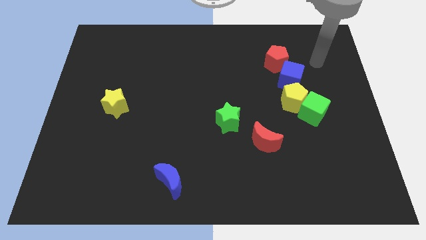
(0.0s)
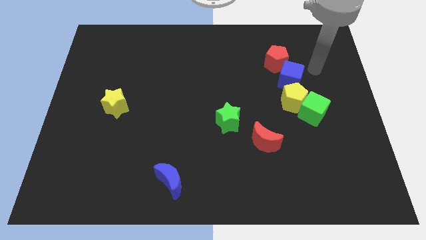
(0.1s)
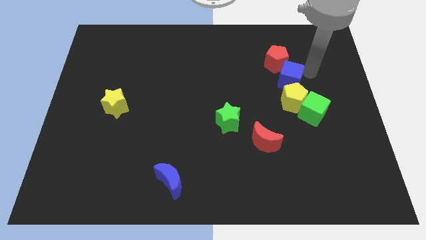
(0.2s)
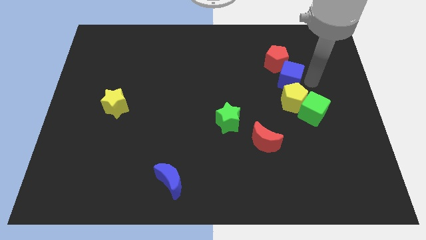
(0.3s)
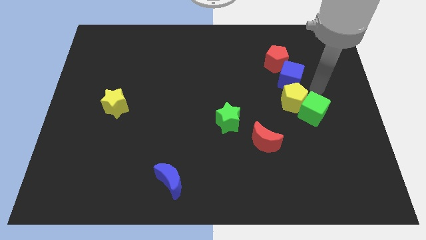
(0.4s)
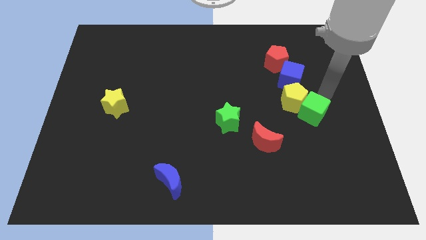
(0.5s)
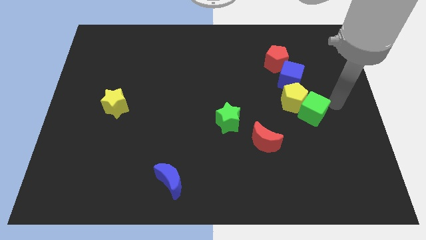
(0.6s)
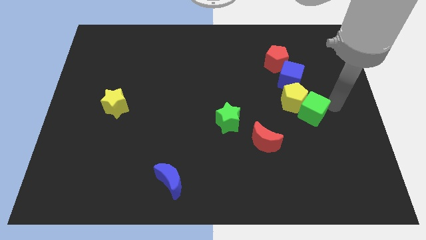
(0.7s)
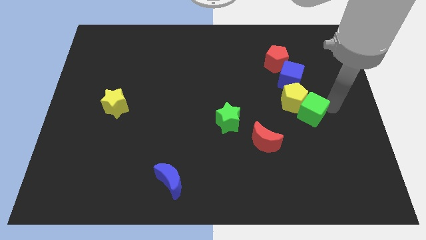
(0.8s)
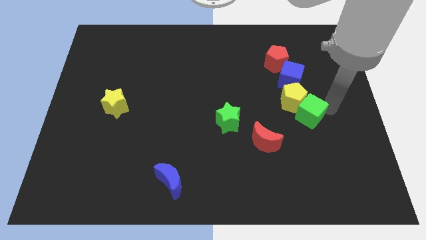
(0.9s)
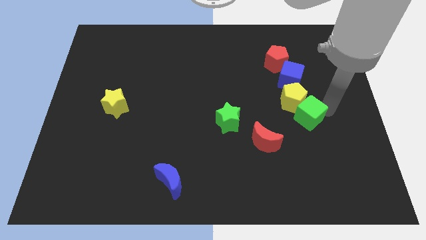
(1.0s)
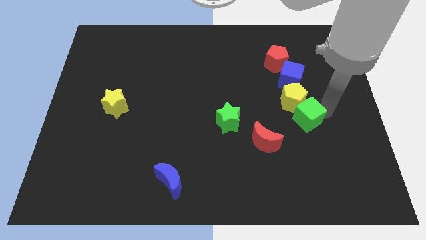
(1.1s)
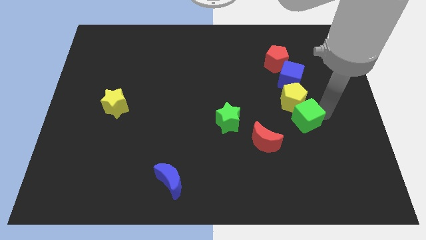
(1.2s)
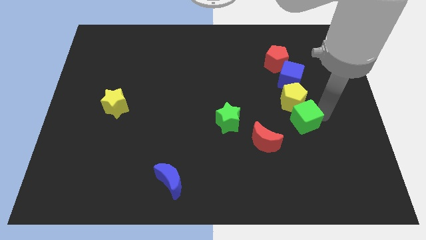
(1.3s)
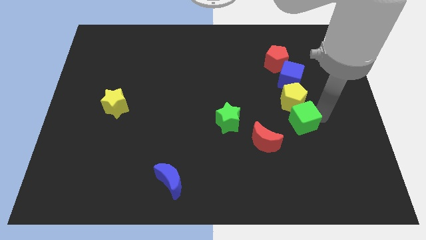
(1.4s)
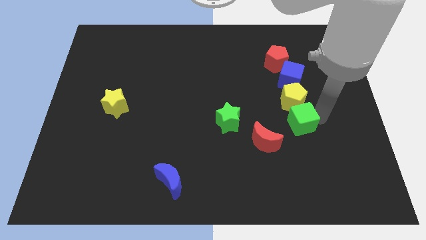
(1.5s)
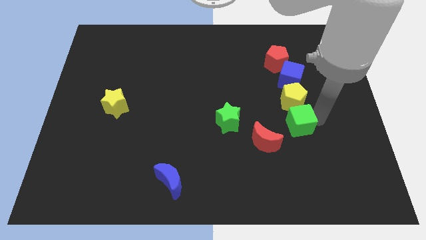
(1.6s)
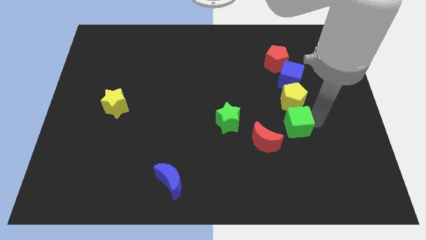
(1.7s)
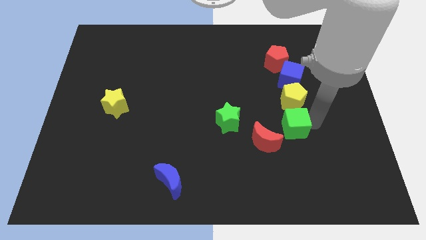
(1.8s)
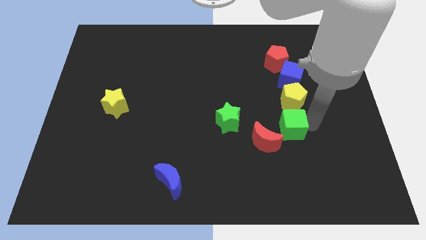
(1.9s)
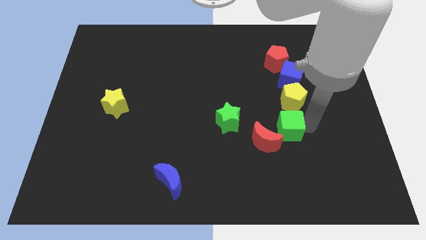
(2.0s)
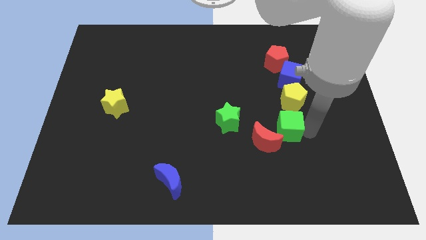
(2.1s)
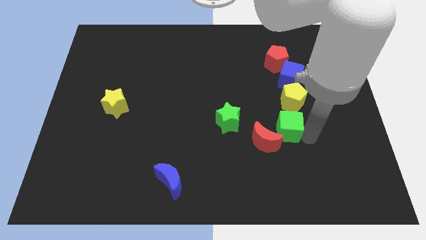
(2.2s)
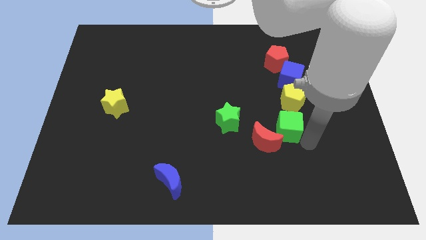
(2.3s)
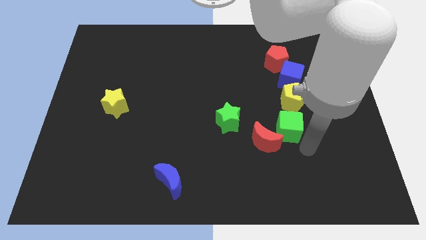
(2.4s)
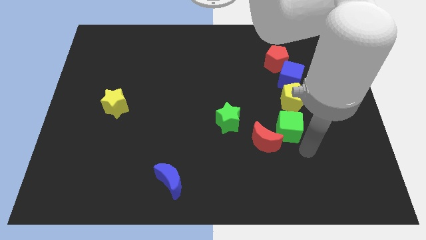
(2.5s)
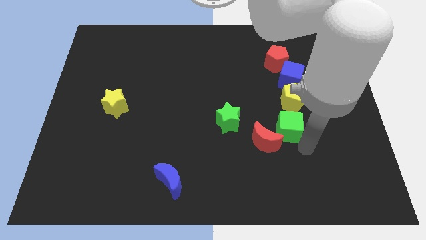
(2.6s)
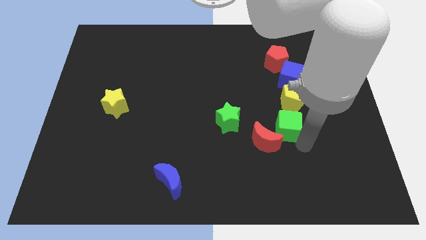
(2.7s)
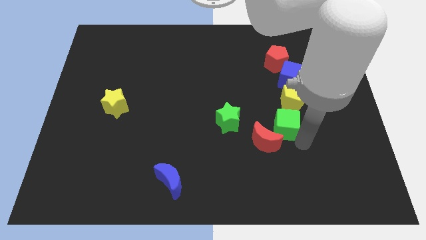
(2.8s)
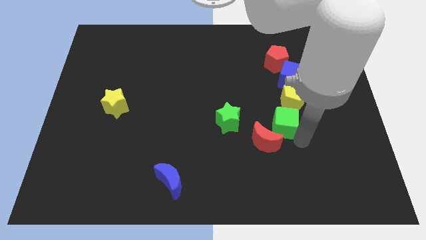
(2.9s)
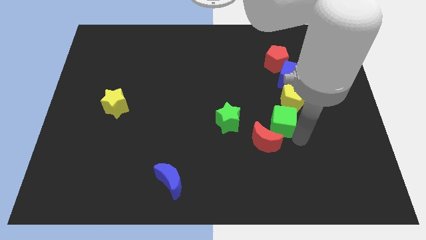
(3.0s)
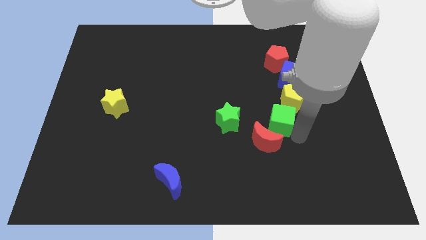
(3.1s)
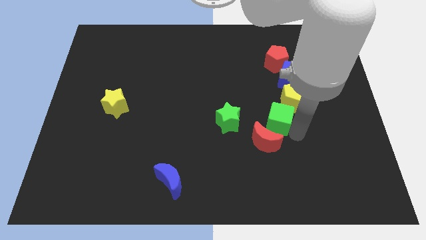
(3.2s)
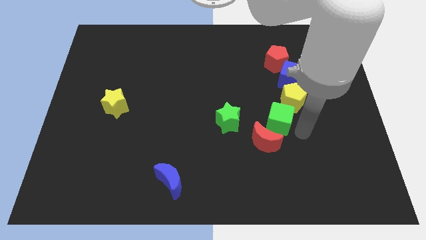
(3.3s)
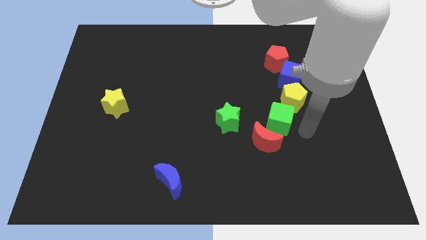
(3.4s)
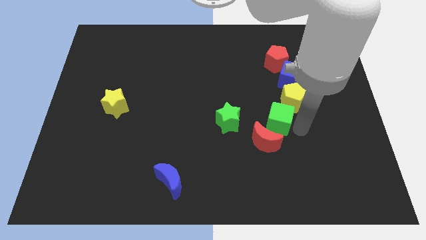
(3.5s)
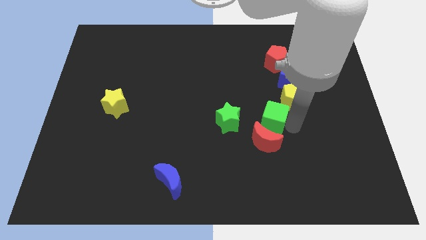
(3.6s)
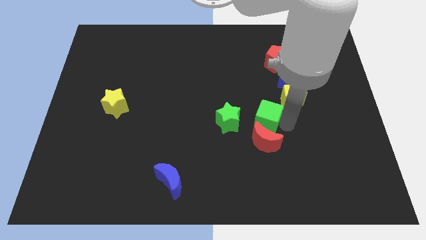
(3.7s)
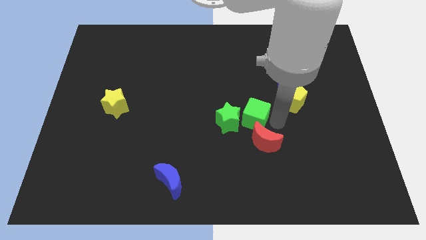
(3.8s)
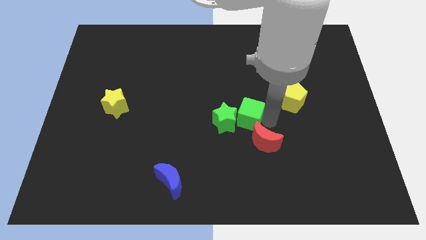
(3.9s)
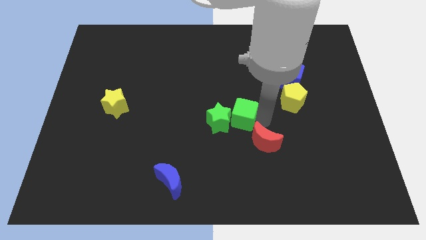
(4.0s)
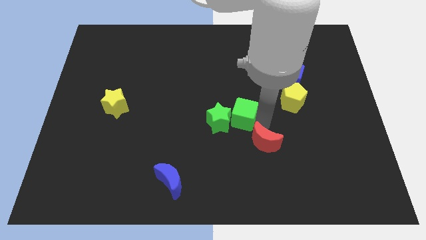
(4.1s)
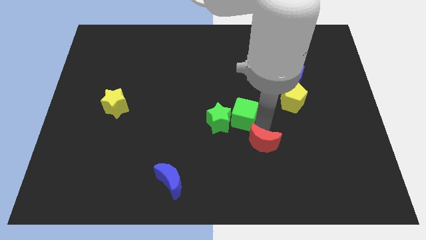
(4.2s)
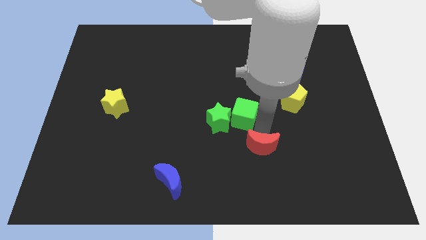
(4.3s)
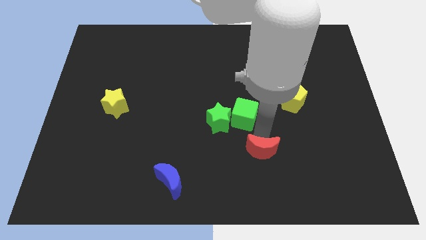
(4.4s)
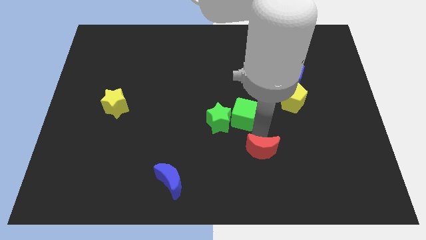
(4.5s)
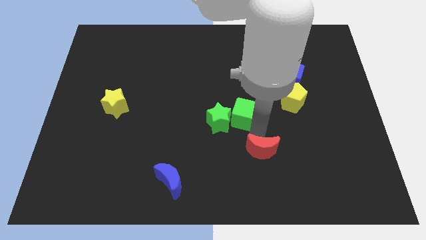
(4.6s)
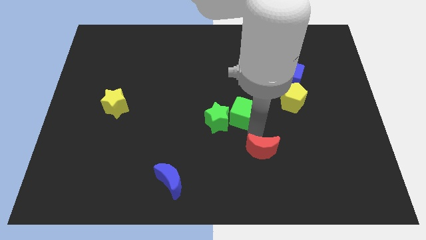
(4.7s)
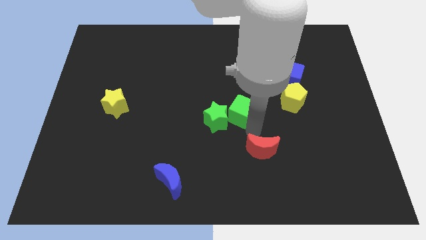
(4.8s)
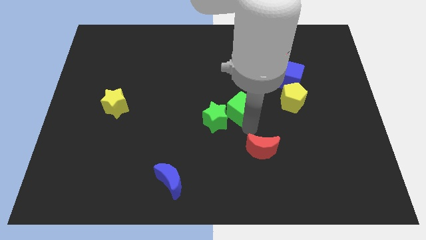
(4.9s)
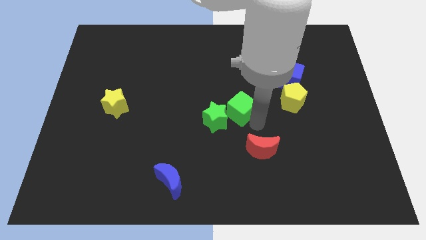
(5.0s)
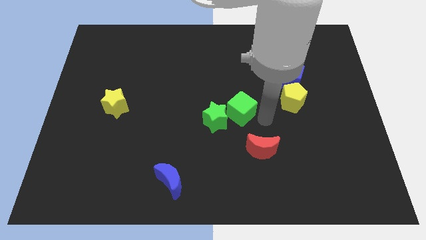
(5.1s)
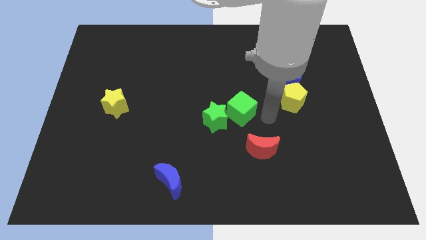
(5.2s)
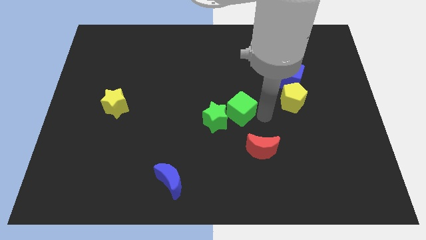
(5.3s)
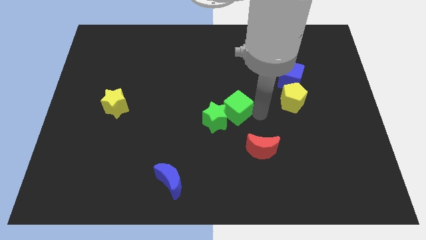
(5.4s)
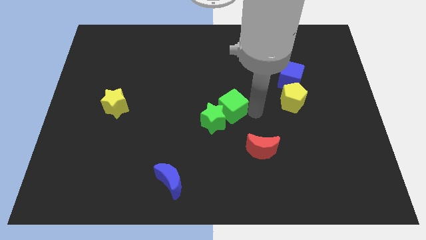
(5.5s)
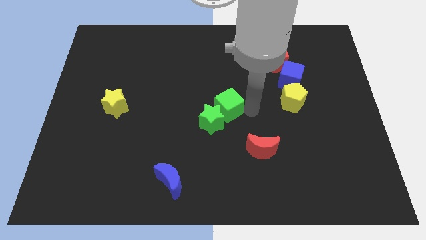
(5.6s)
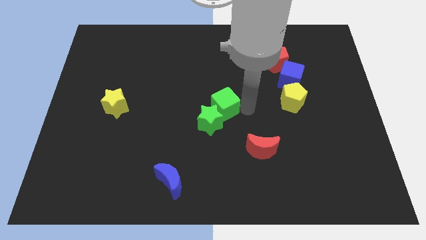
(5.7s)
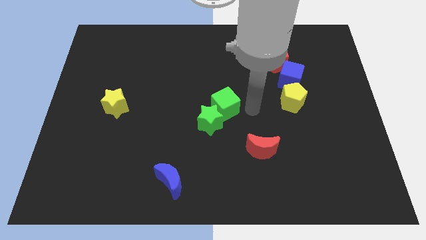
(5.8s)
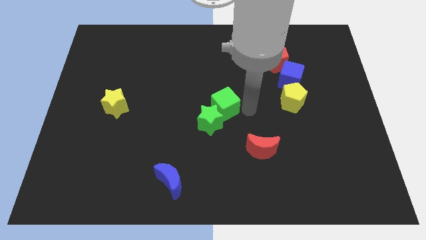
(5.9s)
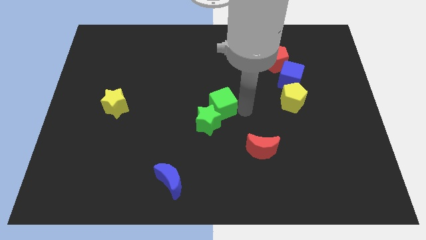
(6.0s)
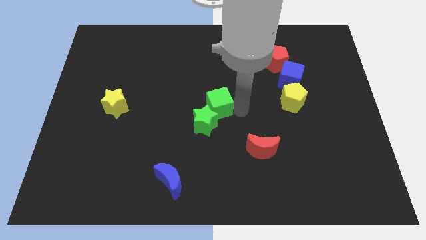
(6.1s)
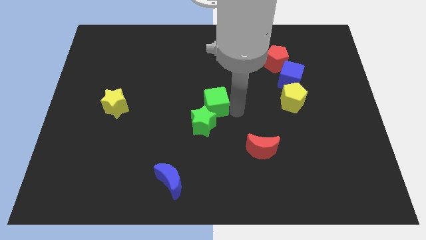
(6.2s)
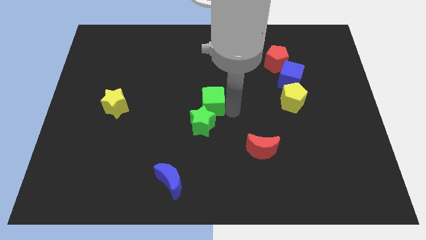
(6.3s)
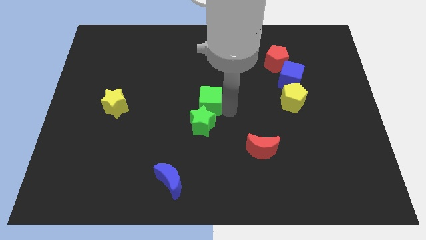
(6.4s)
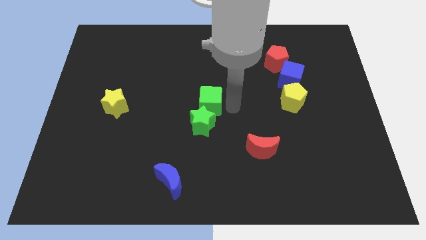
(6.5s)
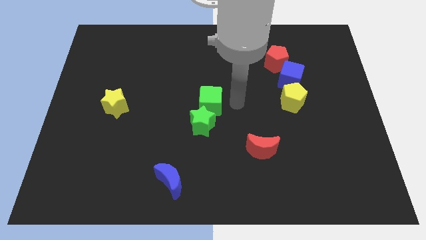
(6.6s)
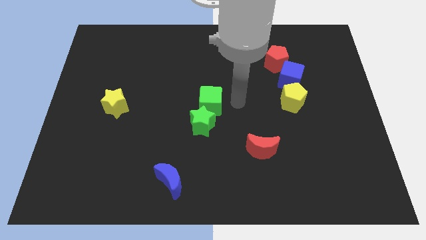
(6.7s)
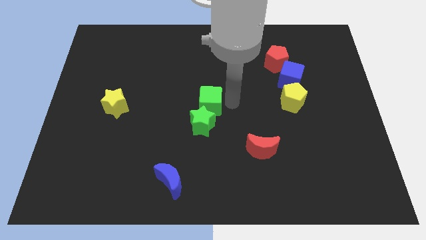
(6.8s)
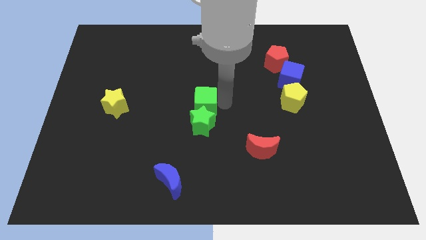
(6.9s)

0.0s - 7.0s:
move the green cube to the top left side of the green star
